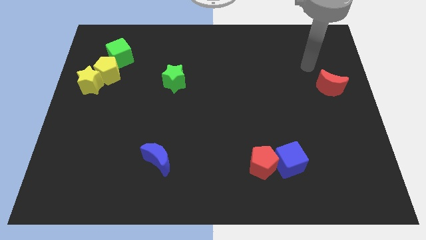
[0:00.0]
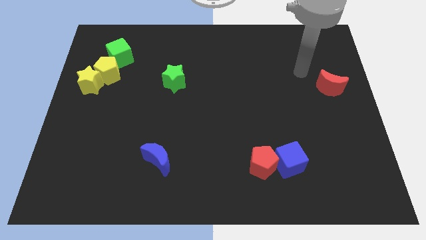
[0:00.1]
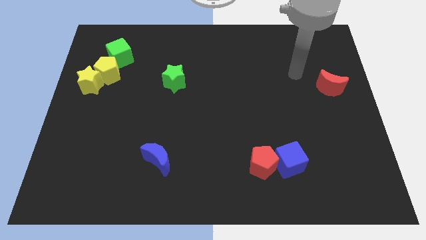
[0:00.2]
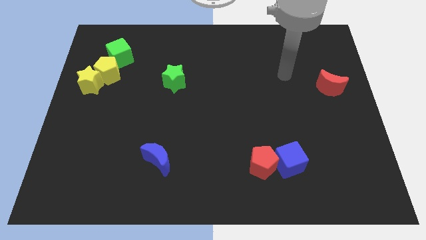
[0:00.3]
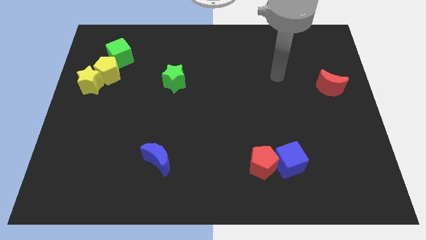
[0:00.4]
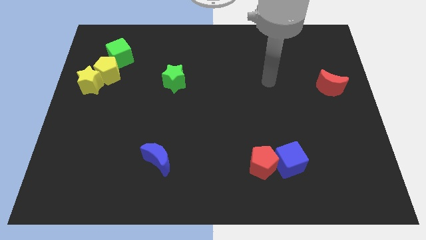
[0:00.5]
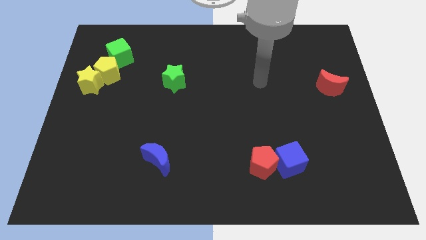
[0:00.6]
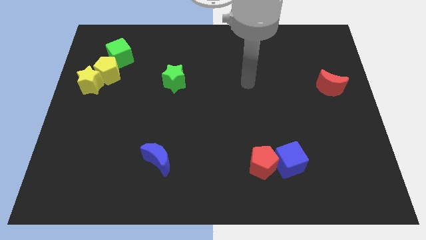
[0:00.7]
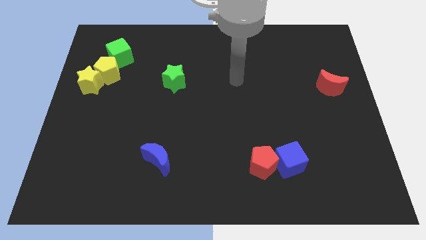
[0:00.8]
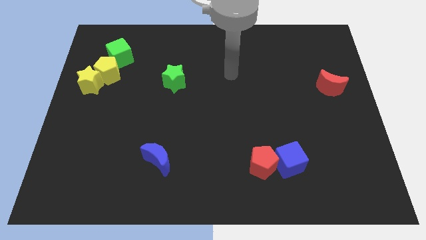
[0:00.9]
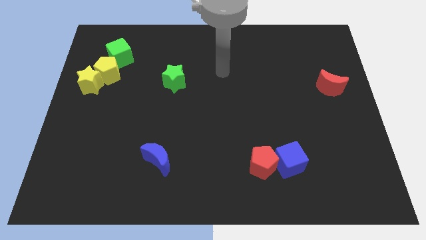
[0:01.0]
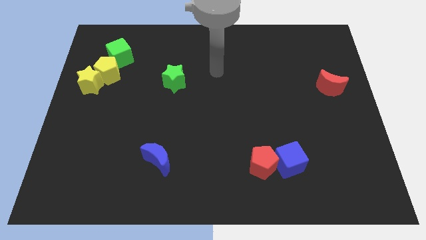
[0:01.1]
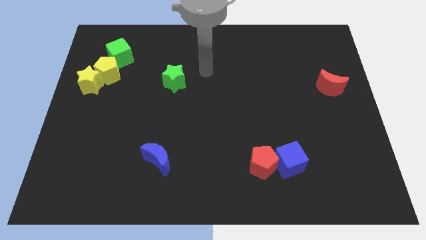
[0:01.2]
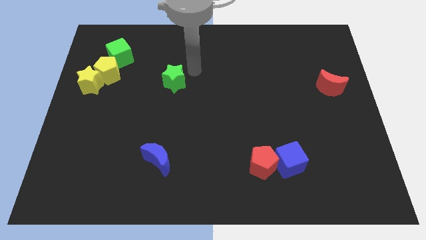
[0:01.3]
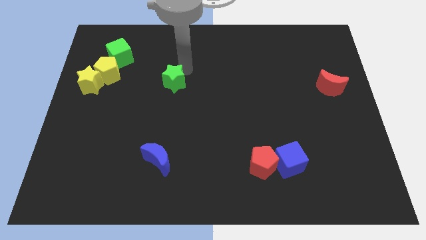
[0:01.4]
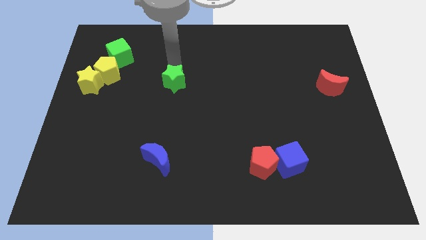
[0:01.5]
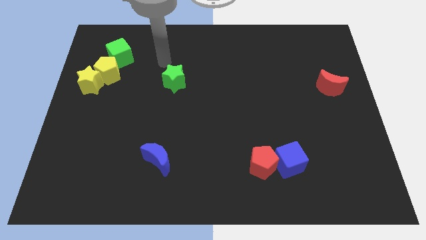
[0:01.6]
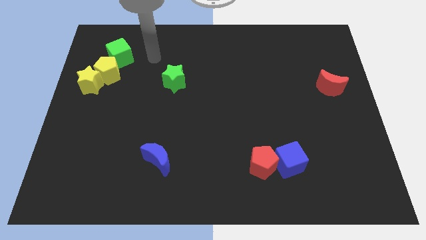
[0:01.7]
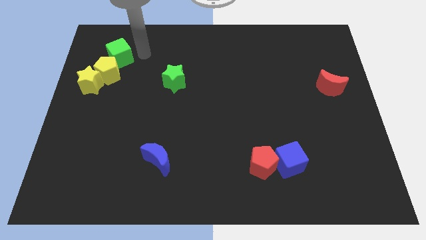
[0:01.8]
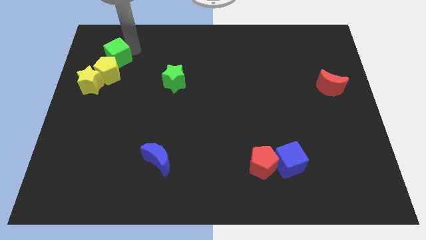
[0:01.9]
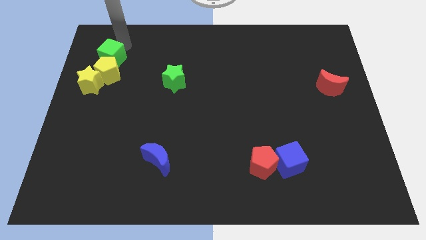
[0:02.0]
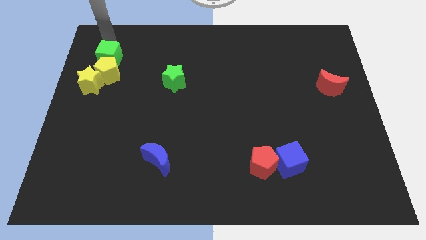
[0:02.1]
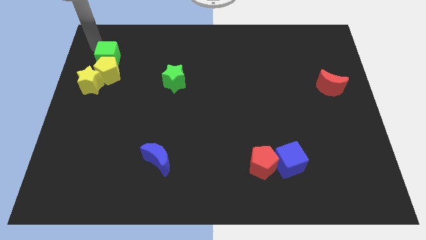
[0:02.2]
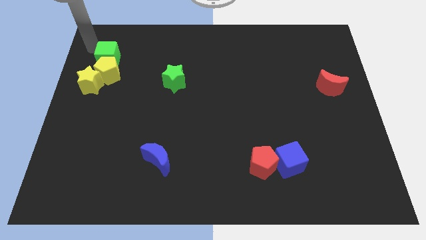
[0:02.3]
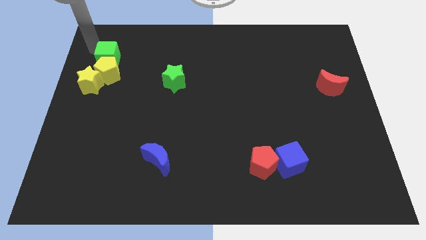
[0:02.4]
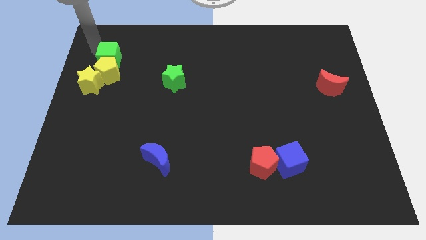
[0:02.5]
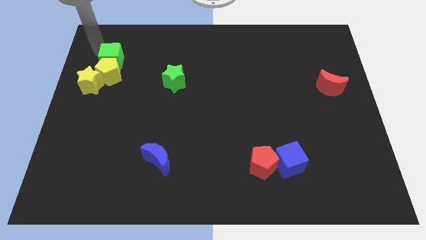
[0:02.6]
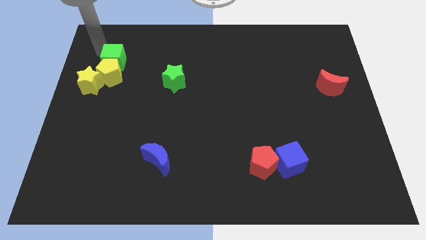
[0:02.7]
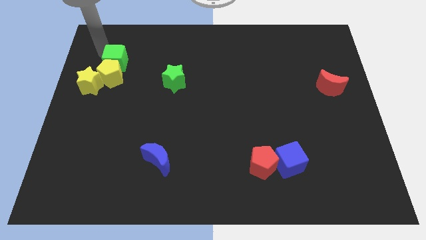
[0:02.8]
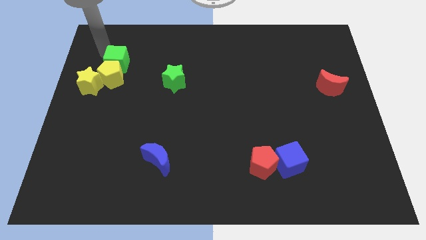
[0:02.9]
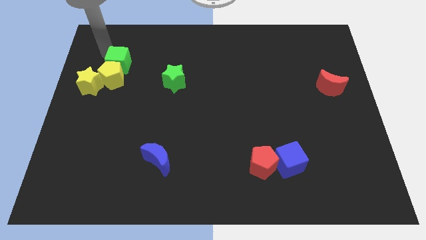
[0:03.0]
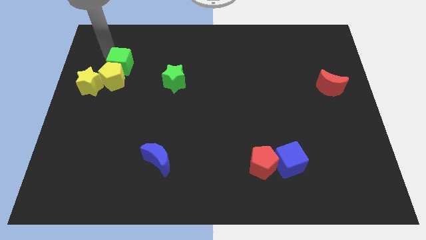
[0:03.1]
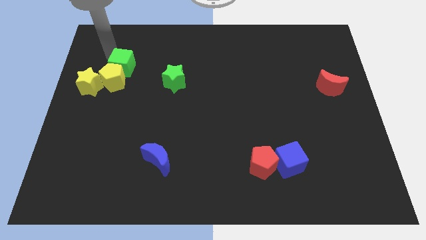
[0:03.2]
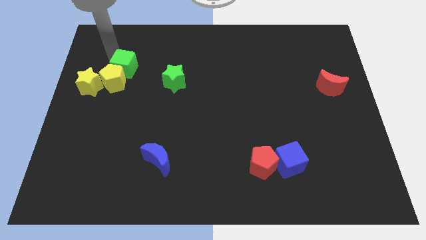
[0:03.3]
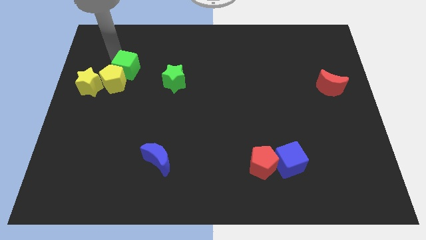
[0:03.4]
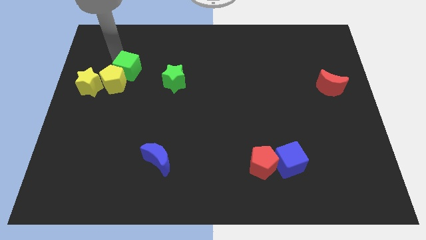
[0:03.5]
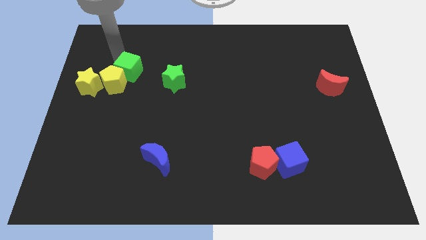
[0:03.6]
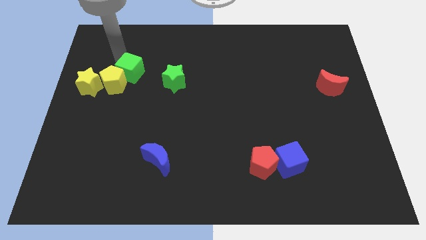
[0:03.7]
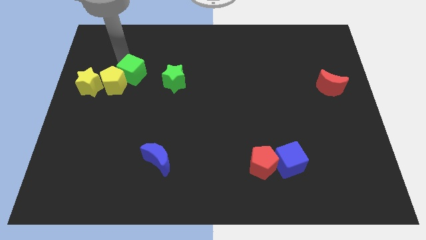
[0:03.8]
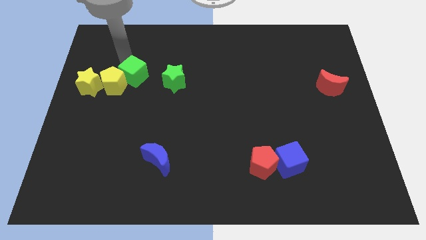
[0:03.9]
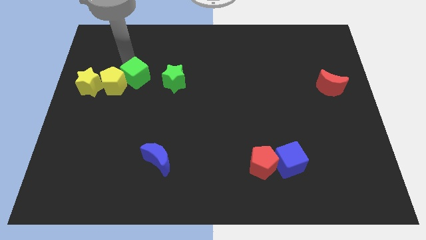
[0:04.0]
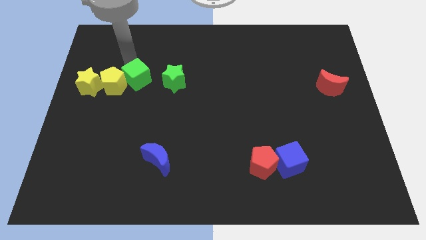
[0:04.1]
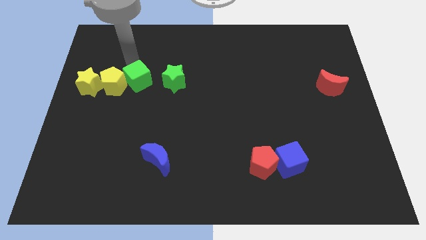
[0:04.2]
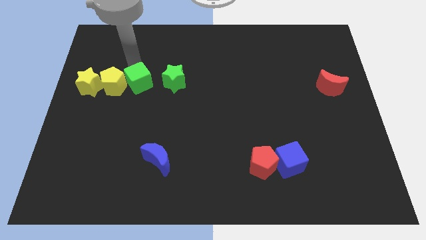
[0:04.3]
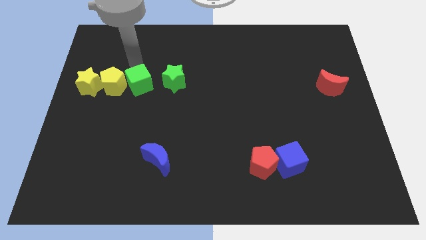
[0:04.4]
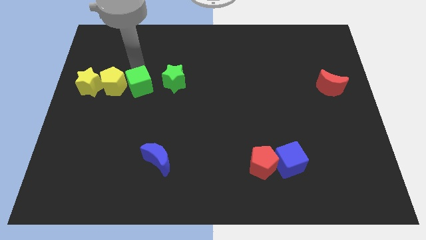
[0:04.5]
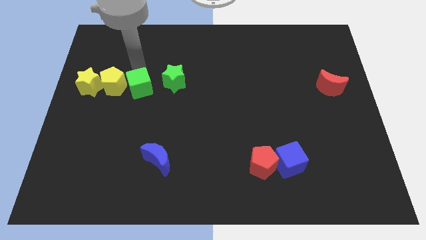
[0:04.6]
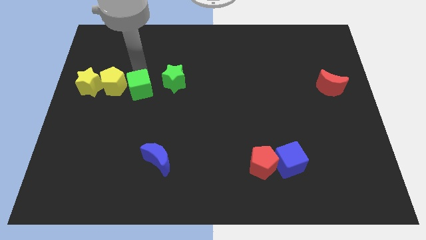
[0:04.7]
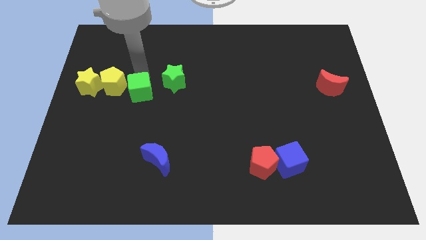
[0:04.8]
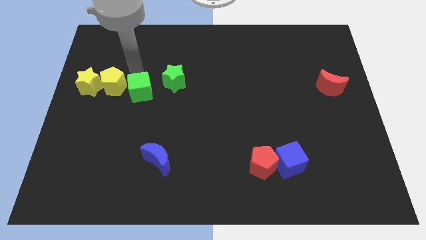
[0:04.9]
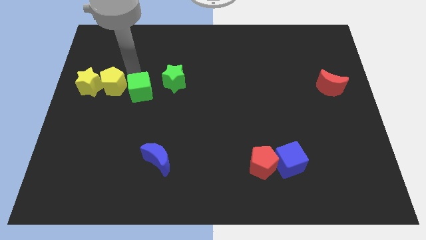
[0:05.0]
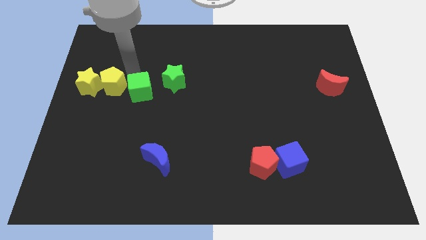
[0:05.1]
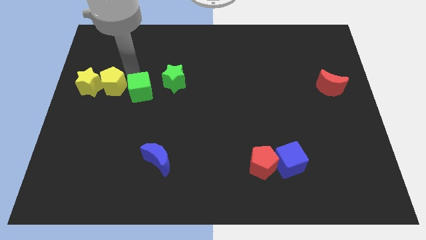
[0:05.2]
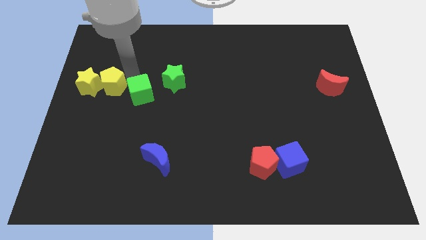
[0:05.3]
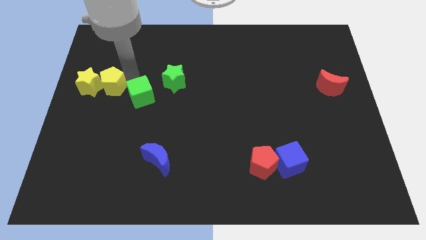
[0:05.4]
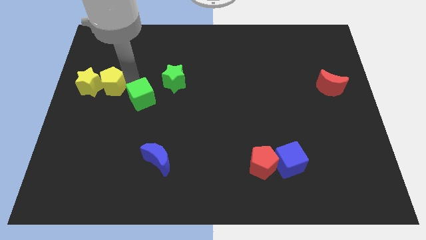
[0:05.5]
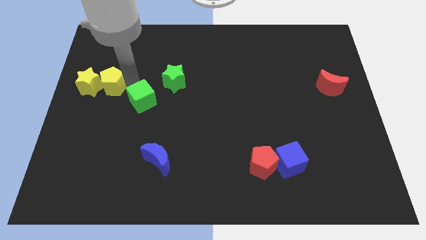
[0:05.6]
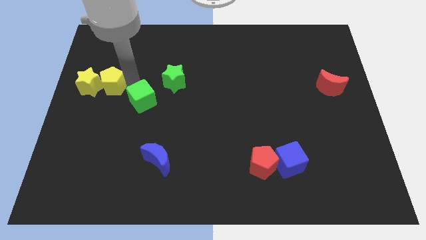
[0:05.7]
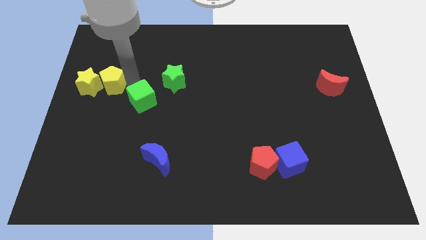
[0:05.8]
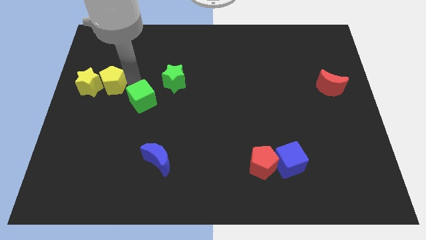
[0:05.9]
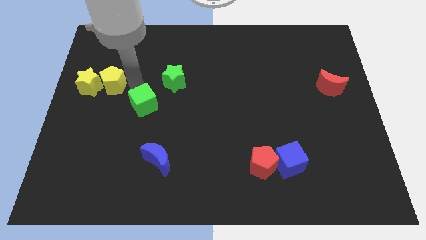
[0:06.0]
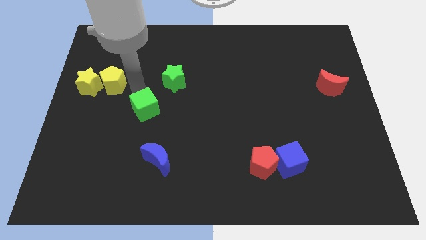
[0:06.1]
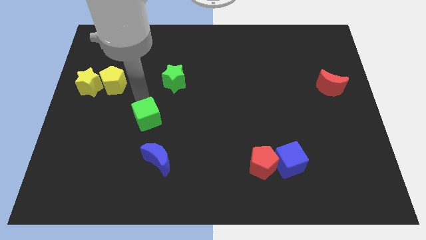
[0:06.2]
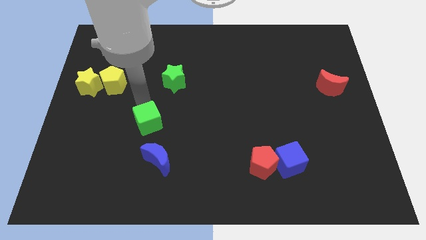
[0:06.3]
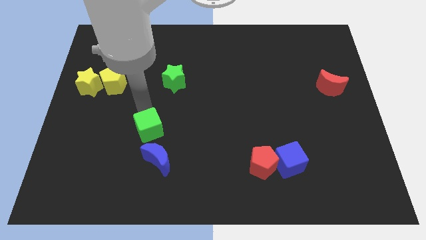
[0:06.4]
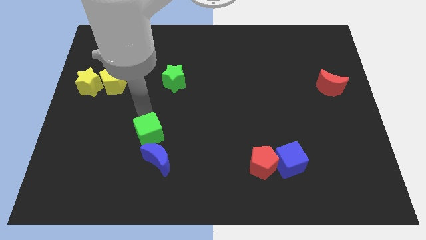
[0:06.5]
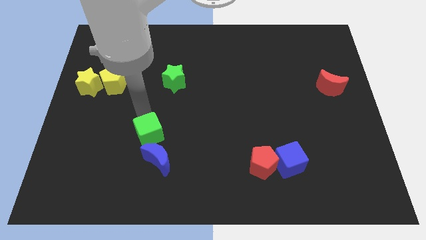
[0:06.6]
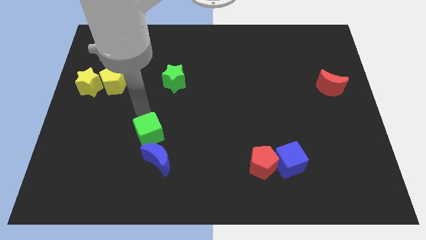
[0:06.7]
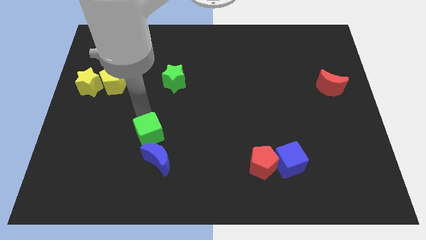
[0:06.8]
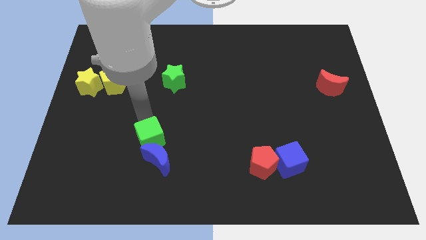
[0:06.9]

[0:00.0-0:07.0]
push the green cube close to the blue moon

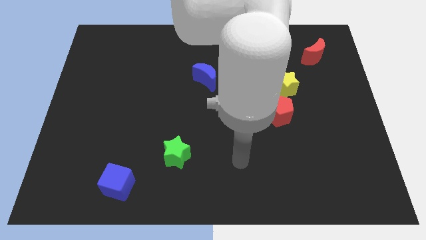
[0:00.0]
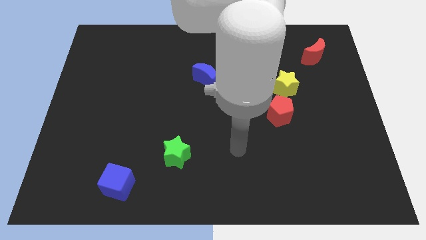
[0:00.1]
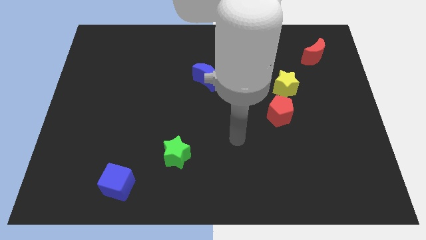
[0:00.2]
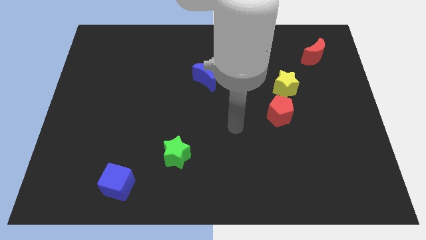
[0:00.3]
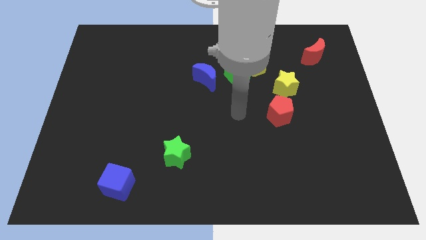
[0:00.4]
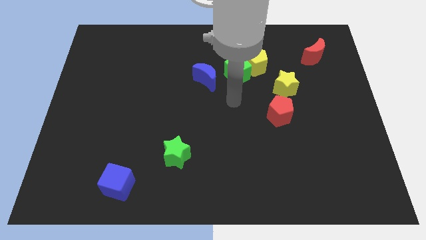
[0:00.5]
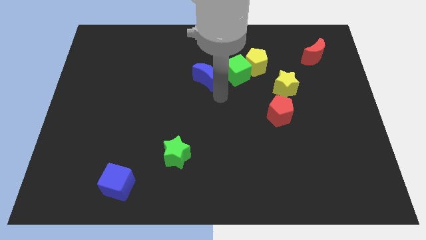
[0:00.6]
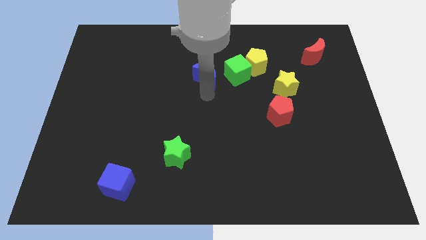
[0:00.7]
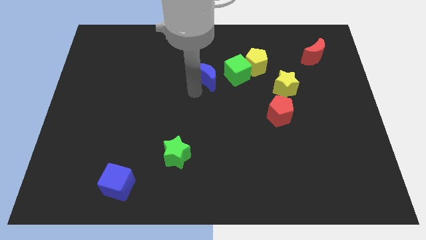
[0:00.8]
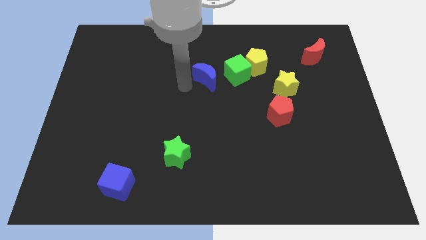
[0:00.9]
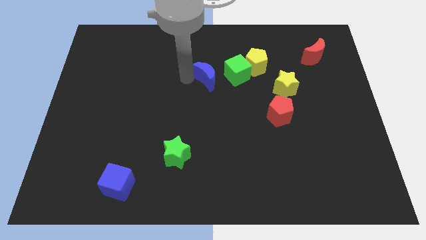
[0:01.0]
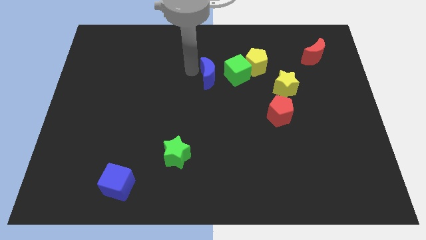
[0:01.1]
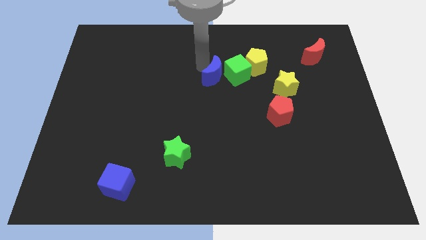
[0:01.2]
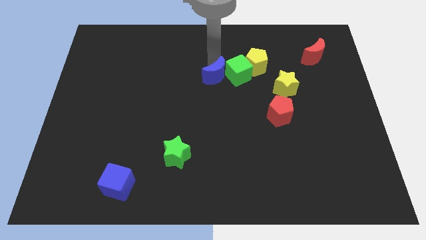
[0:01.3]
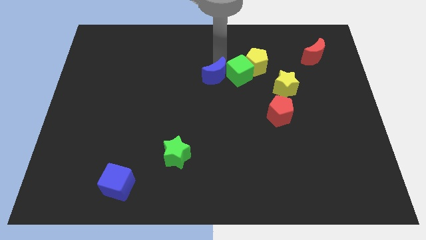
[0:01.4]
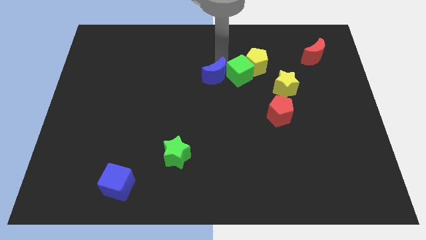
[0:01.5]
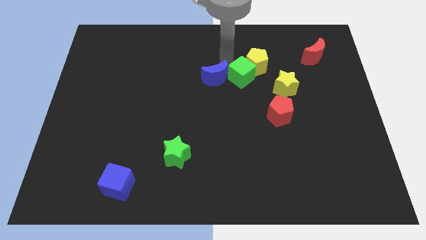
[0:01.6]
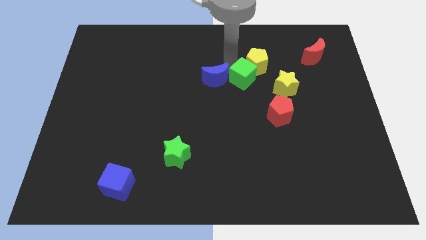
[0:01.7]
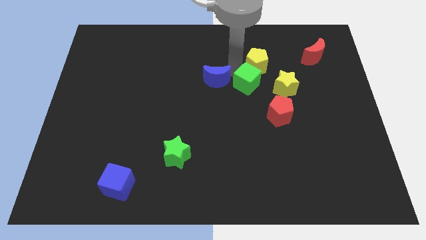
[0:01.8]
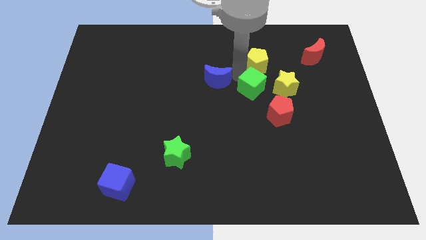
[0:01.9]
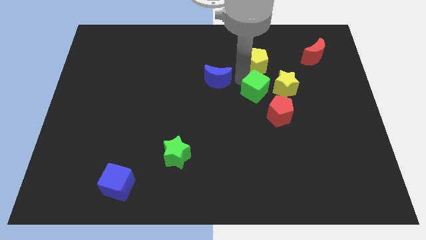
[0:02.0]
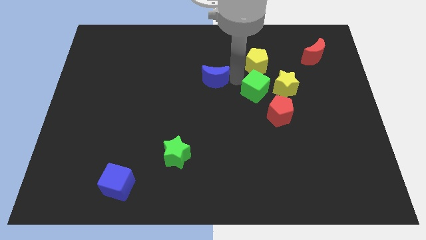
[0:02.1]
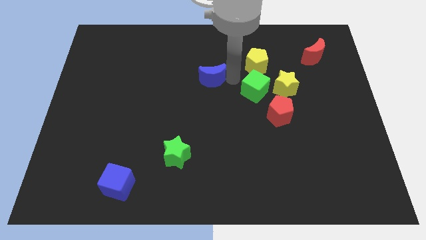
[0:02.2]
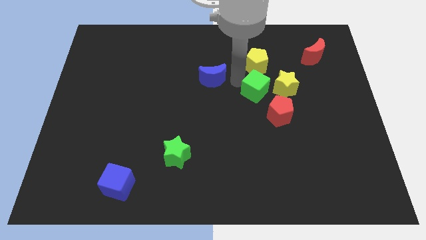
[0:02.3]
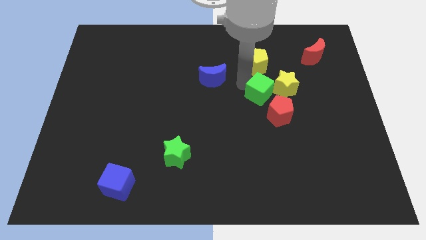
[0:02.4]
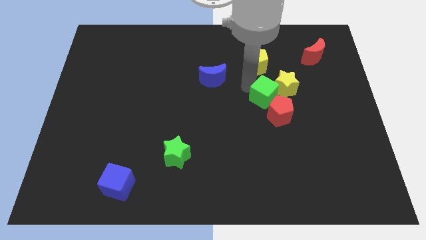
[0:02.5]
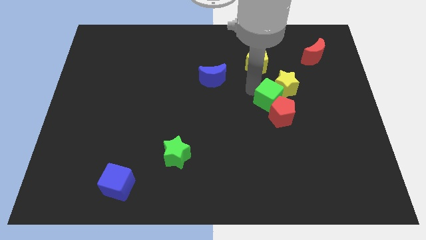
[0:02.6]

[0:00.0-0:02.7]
slide the green cube next to the red pentagon
